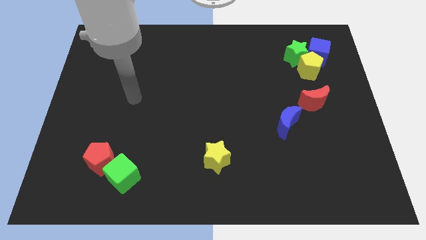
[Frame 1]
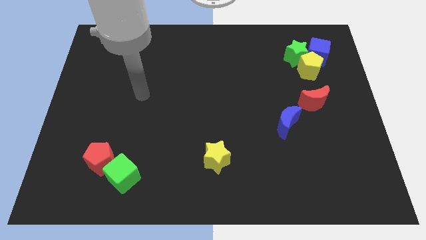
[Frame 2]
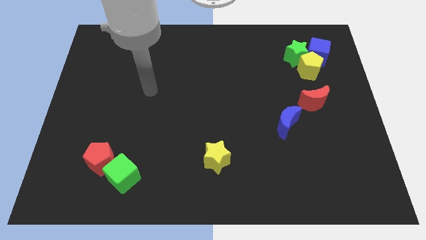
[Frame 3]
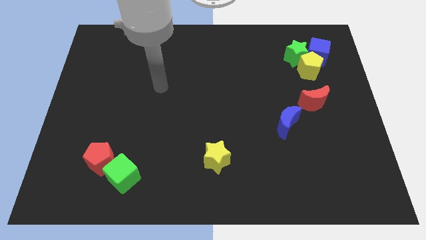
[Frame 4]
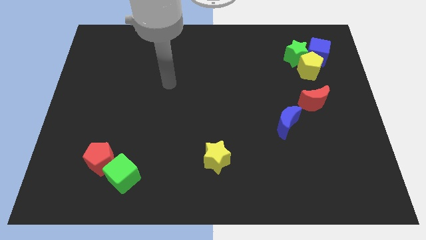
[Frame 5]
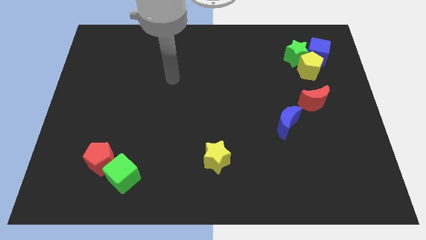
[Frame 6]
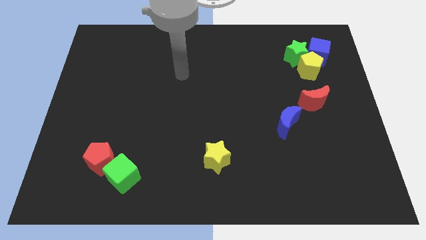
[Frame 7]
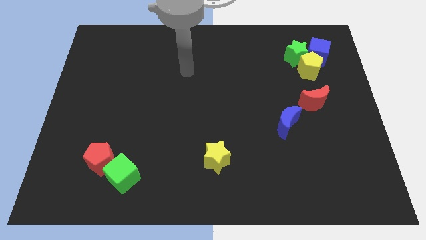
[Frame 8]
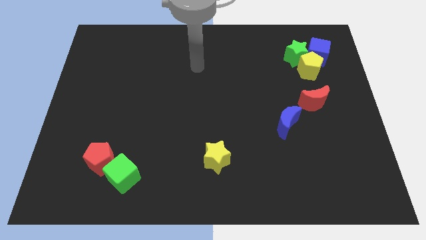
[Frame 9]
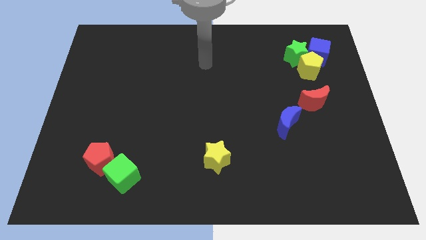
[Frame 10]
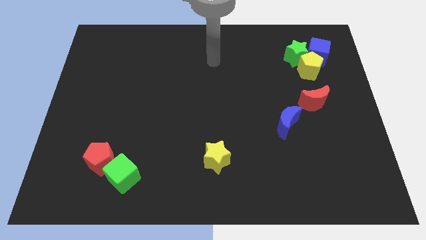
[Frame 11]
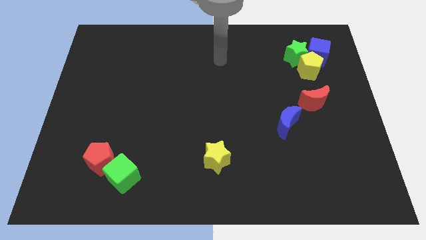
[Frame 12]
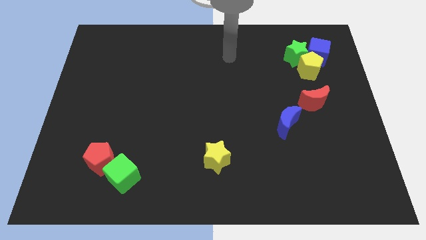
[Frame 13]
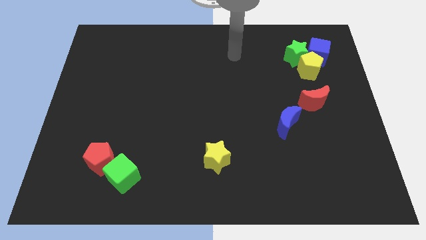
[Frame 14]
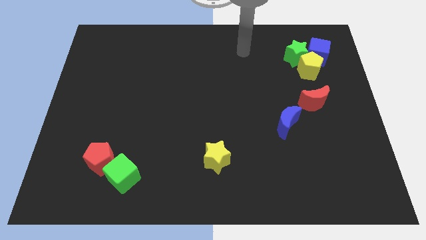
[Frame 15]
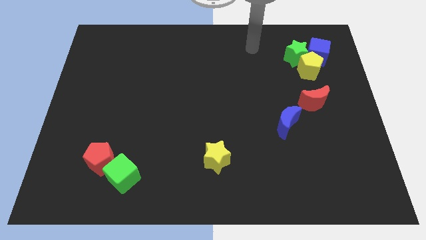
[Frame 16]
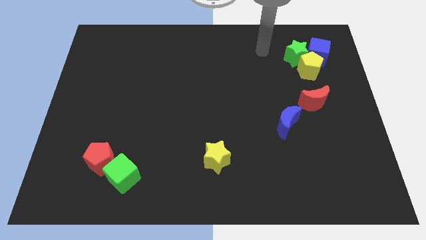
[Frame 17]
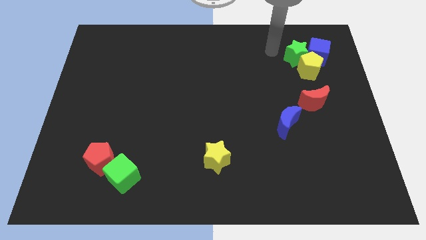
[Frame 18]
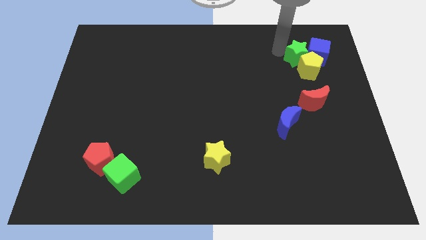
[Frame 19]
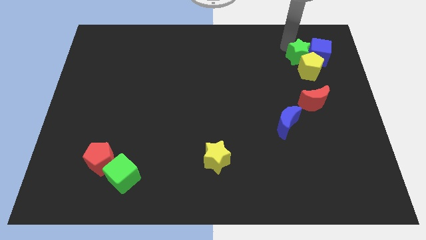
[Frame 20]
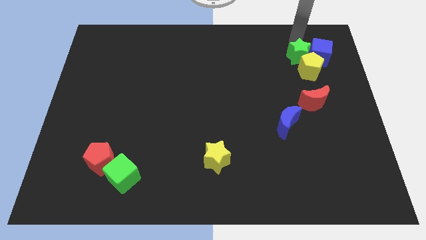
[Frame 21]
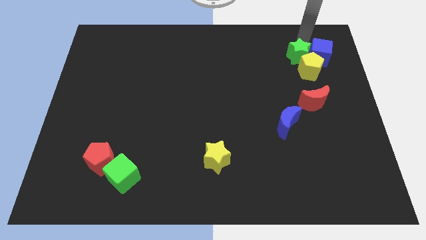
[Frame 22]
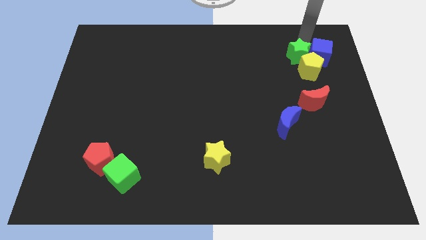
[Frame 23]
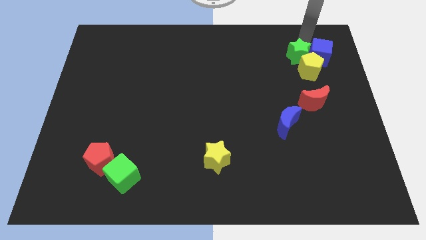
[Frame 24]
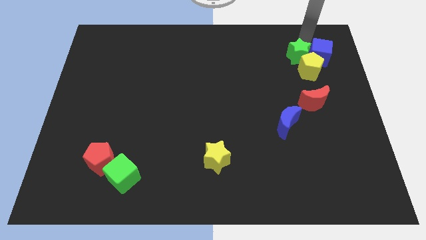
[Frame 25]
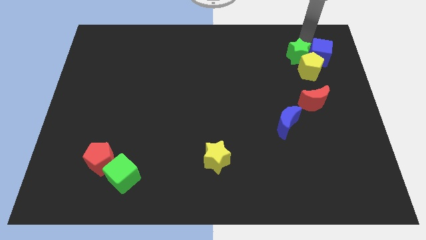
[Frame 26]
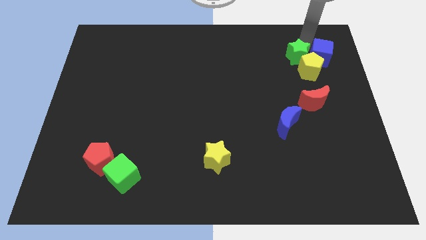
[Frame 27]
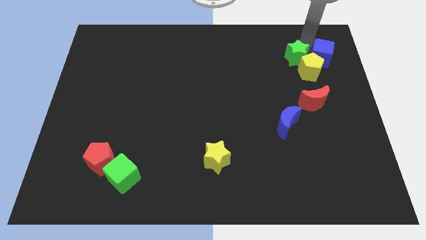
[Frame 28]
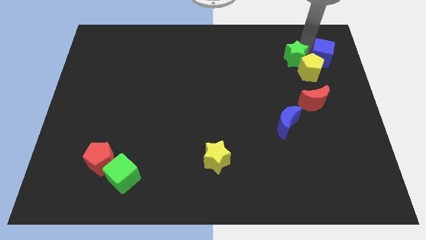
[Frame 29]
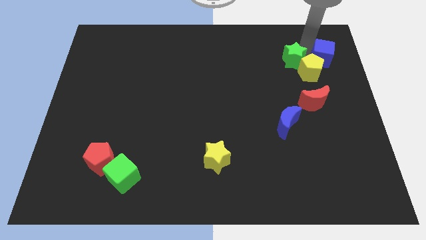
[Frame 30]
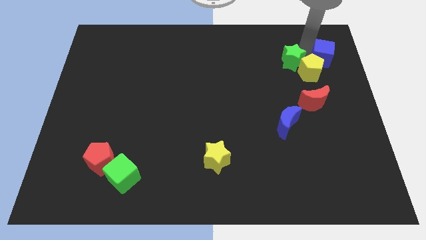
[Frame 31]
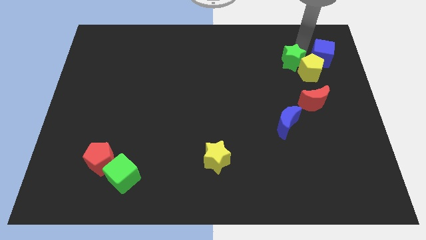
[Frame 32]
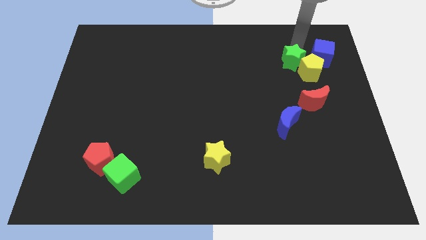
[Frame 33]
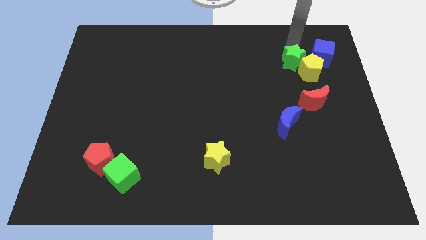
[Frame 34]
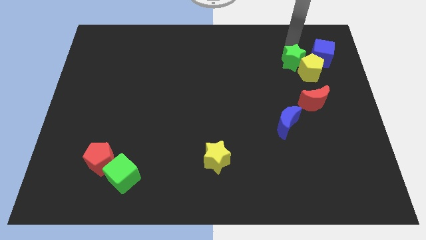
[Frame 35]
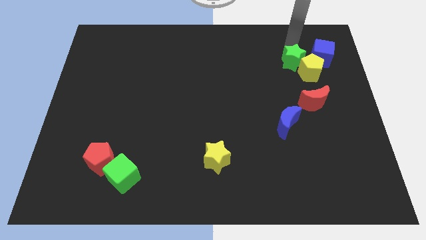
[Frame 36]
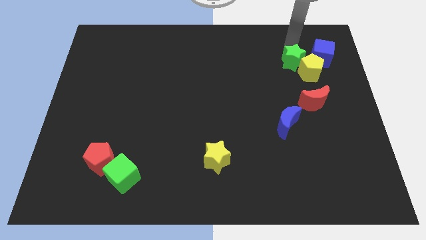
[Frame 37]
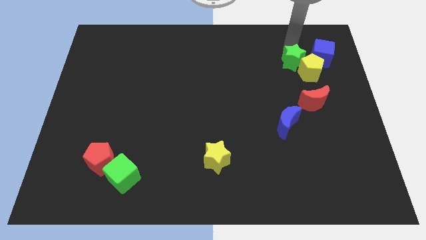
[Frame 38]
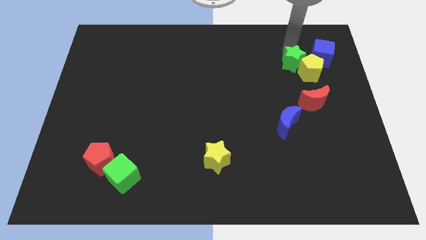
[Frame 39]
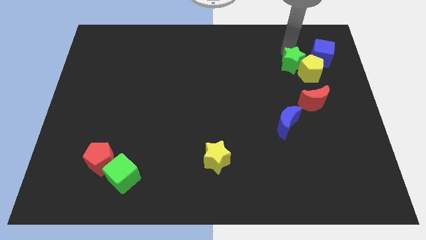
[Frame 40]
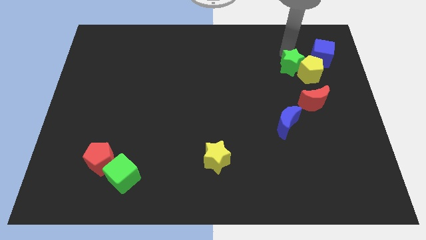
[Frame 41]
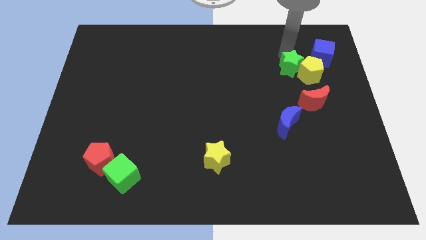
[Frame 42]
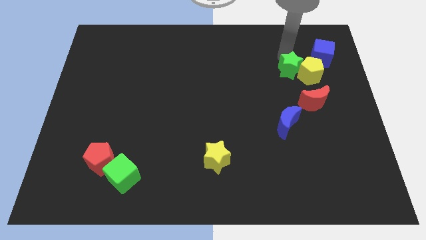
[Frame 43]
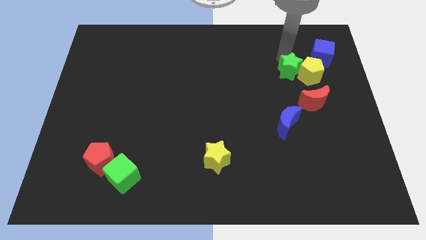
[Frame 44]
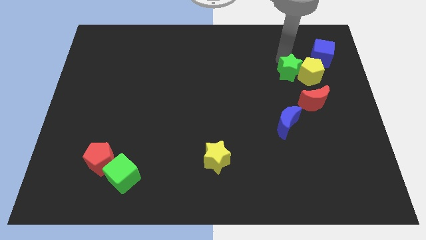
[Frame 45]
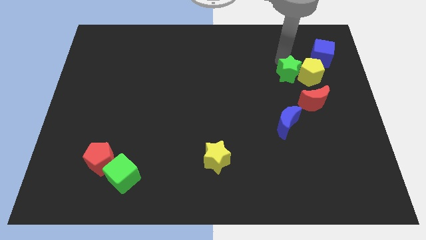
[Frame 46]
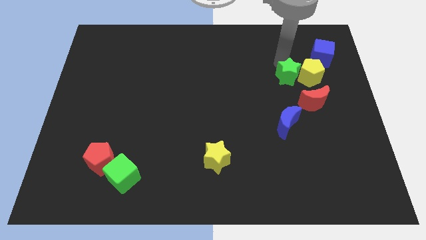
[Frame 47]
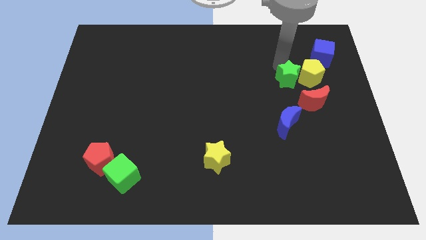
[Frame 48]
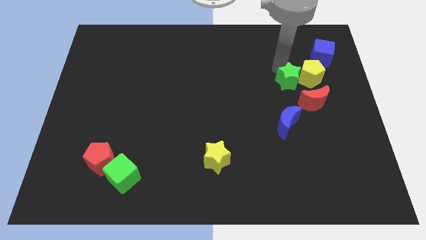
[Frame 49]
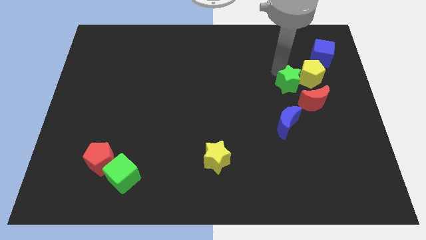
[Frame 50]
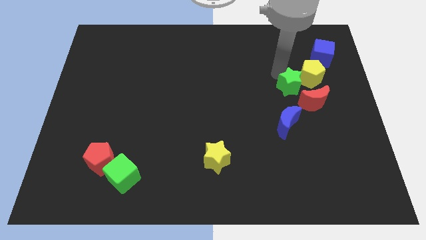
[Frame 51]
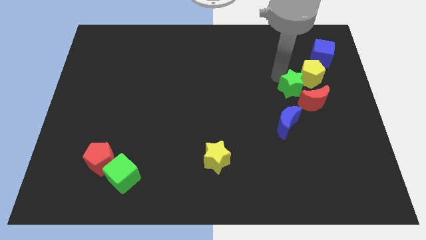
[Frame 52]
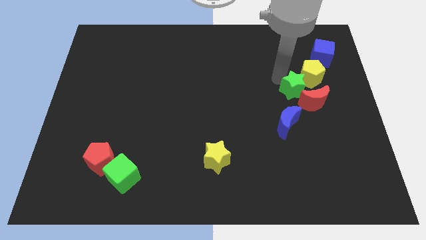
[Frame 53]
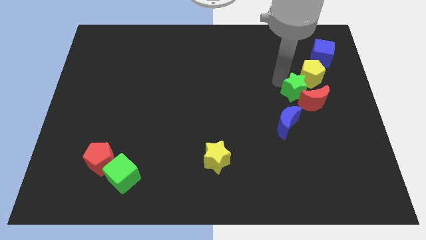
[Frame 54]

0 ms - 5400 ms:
put the green star next to the red moon

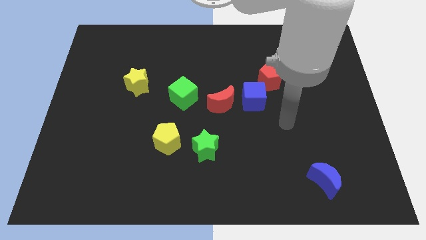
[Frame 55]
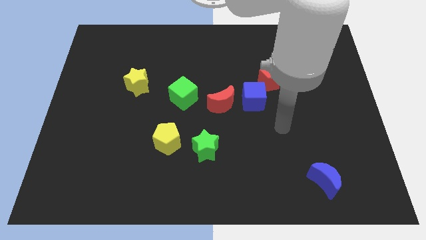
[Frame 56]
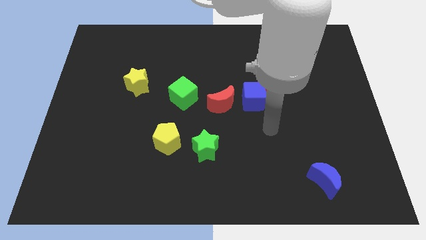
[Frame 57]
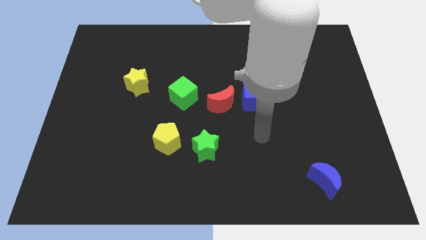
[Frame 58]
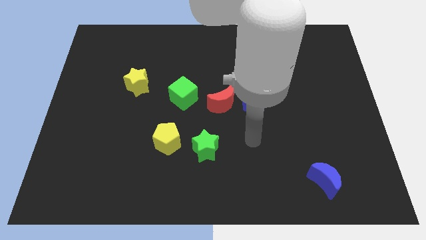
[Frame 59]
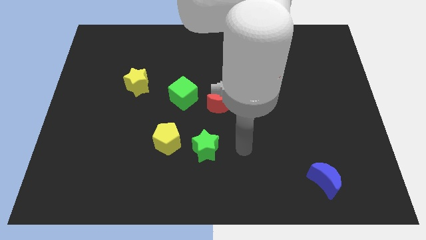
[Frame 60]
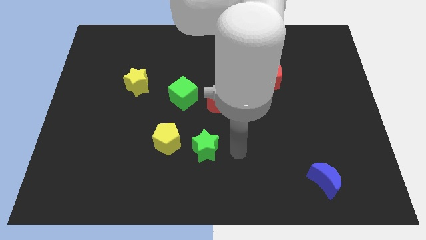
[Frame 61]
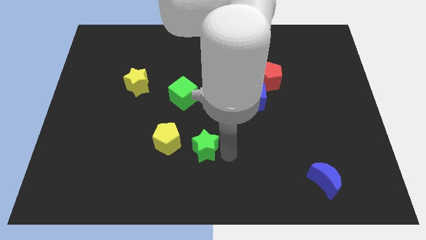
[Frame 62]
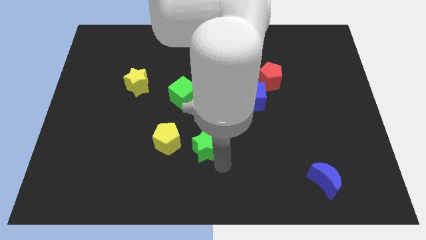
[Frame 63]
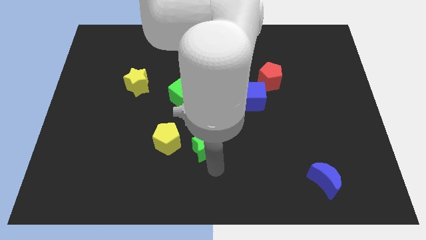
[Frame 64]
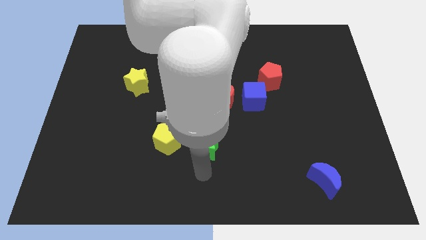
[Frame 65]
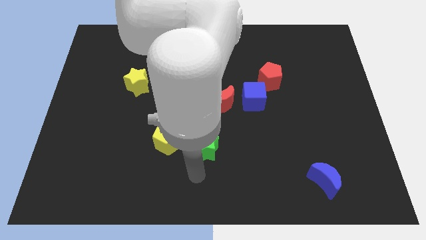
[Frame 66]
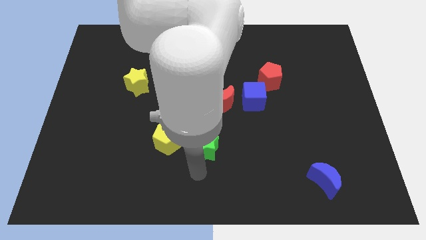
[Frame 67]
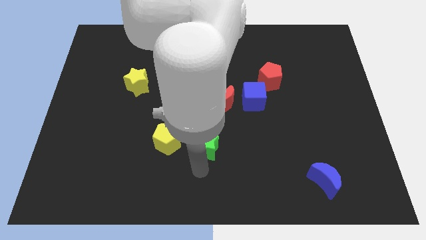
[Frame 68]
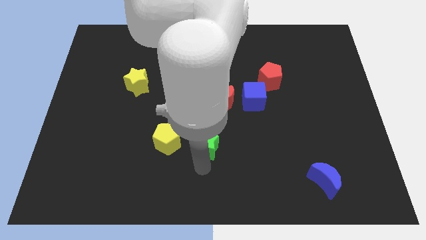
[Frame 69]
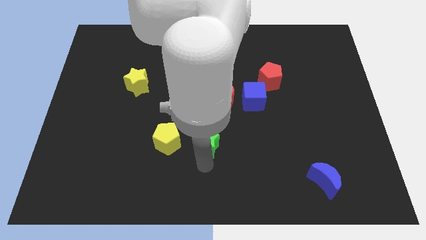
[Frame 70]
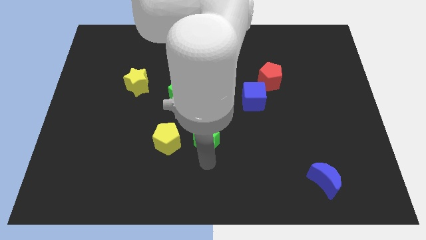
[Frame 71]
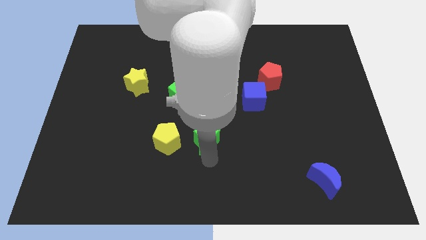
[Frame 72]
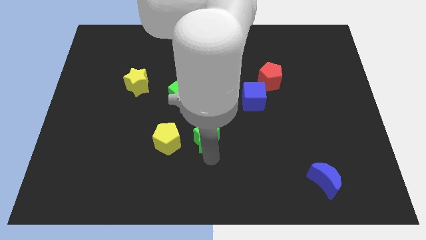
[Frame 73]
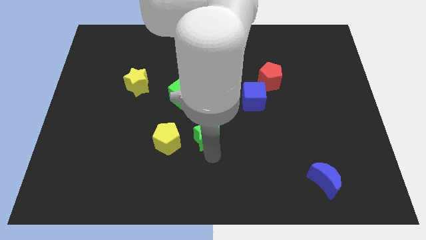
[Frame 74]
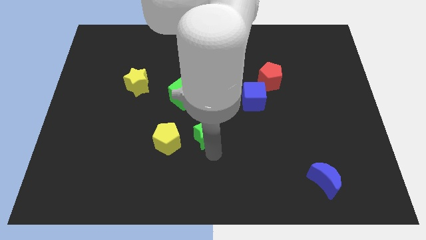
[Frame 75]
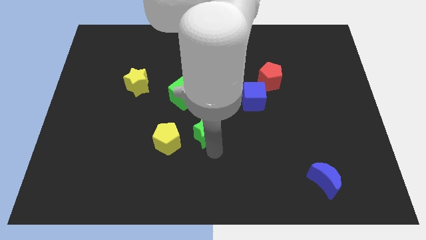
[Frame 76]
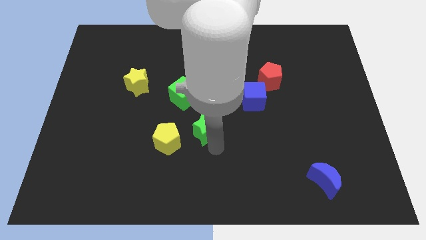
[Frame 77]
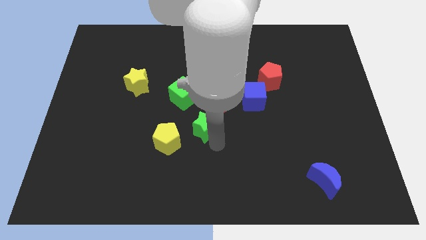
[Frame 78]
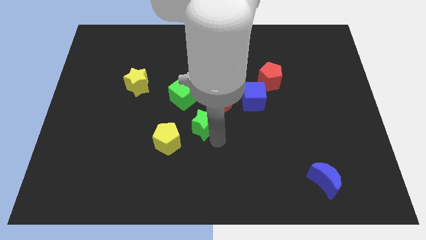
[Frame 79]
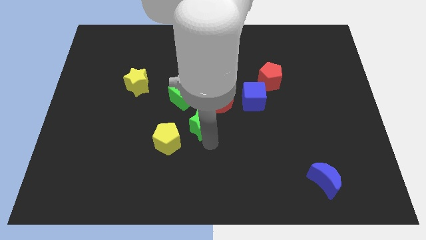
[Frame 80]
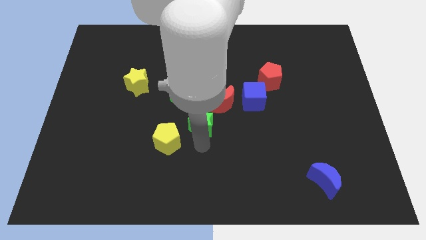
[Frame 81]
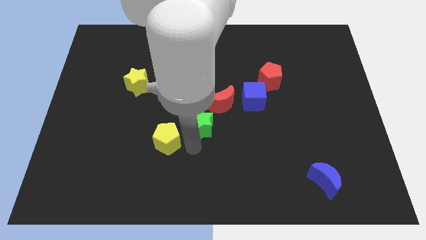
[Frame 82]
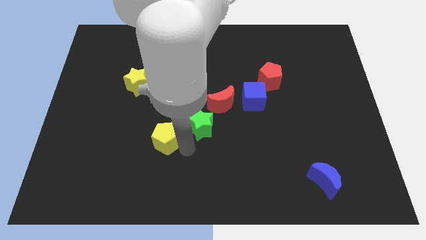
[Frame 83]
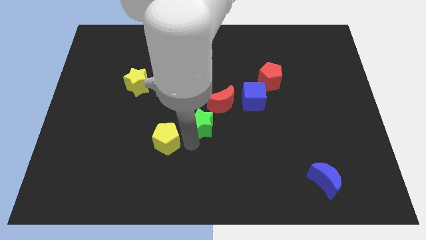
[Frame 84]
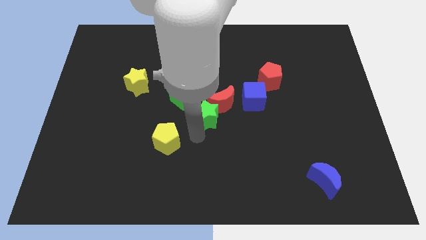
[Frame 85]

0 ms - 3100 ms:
push the green star close to the red moon
